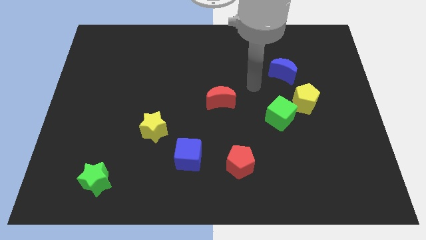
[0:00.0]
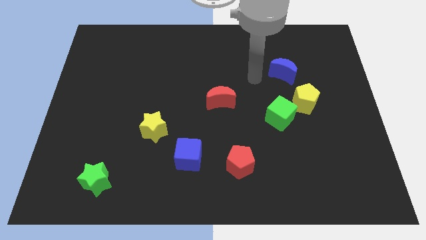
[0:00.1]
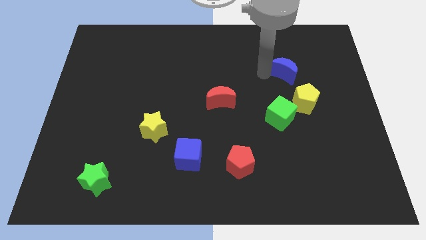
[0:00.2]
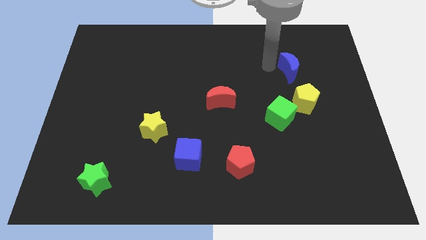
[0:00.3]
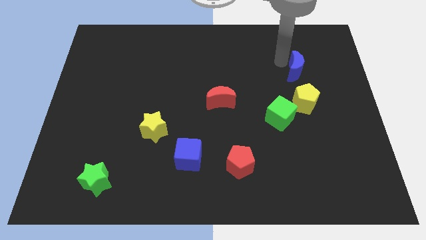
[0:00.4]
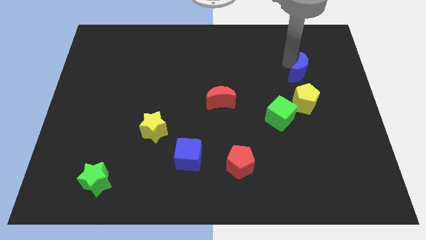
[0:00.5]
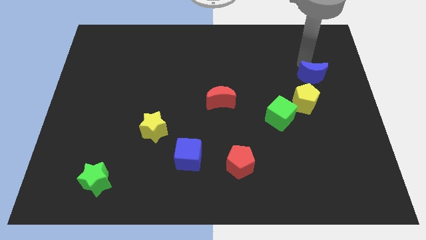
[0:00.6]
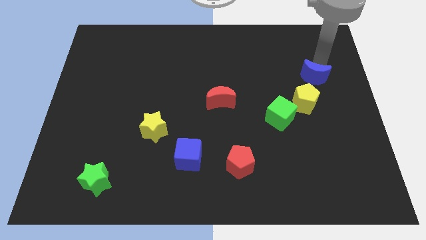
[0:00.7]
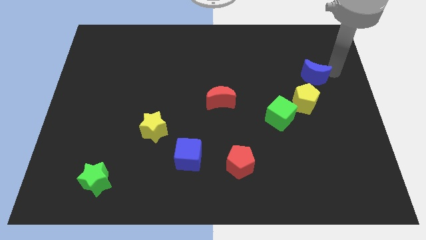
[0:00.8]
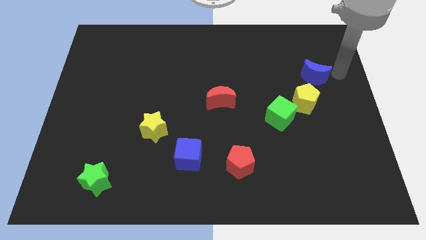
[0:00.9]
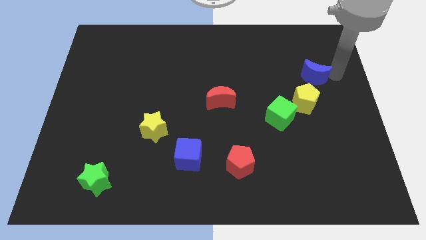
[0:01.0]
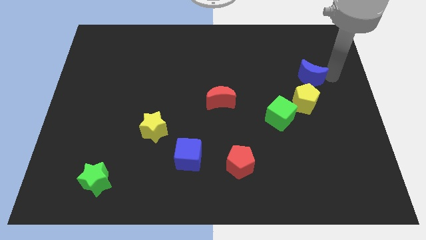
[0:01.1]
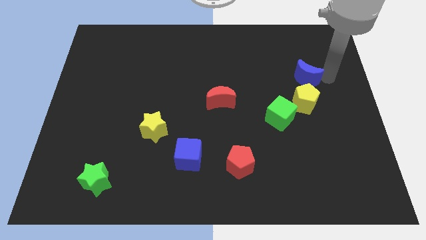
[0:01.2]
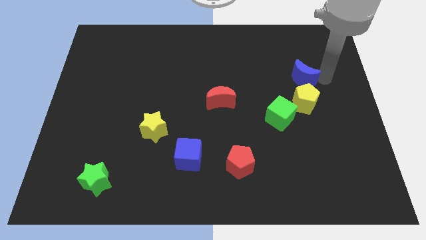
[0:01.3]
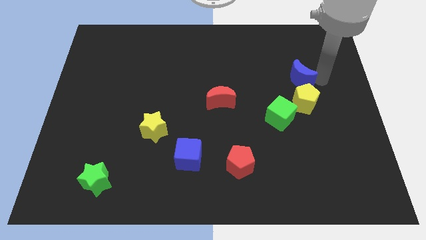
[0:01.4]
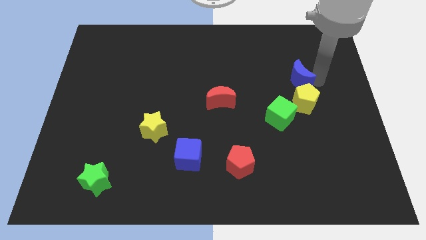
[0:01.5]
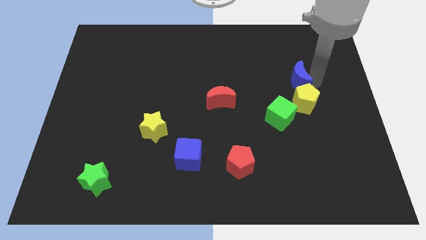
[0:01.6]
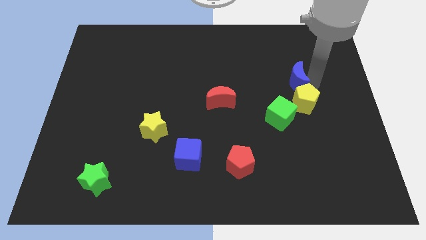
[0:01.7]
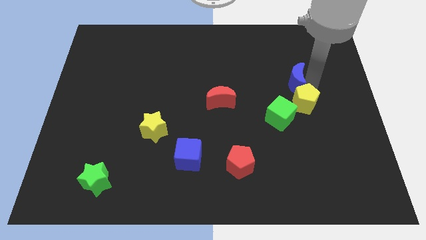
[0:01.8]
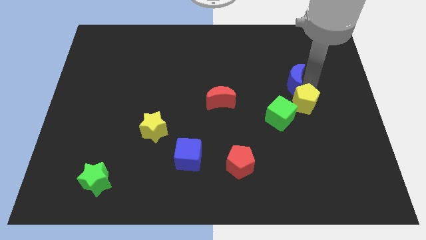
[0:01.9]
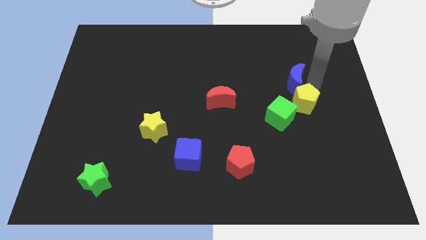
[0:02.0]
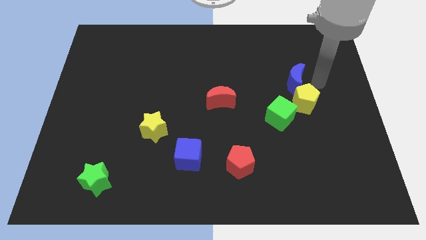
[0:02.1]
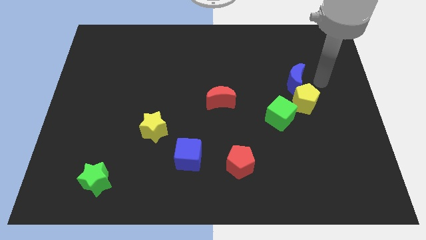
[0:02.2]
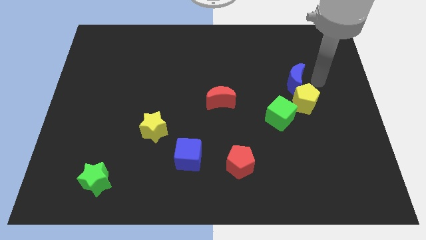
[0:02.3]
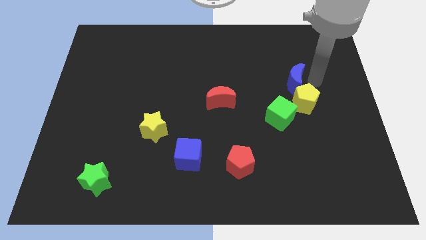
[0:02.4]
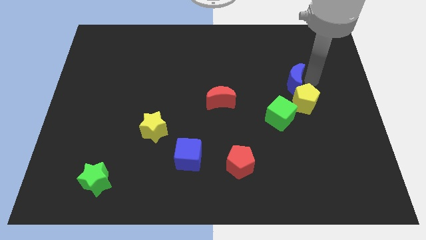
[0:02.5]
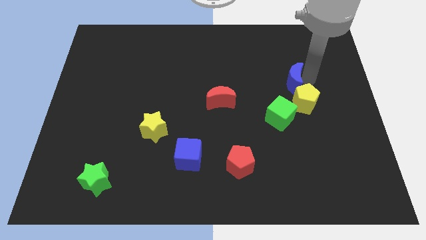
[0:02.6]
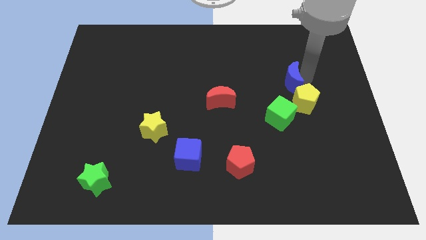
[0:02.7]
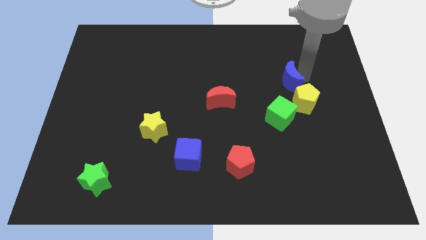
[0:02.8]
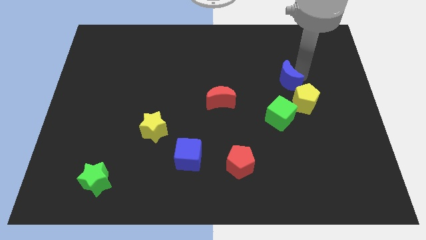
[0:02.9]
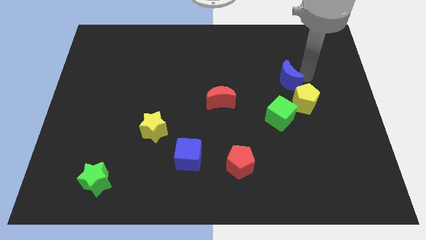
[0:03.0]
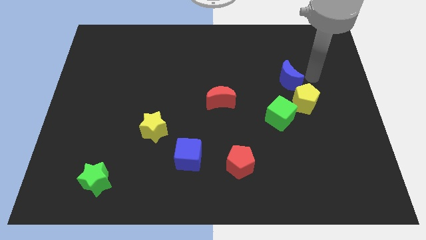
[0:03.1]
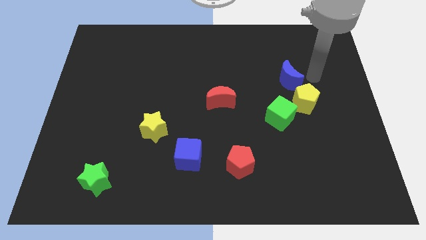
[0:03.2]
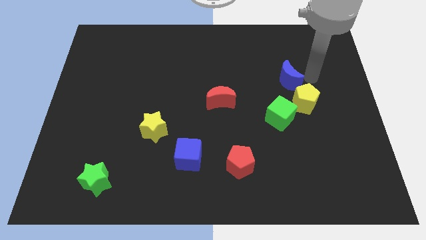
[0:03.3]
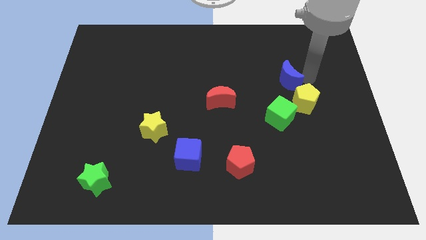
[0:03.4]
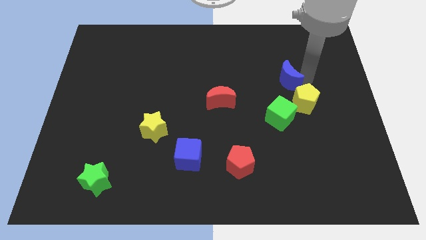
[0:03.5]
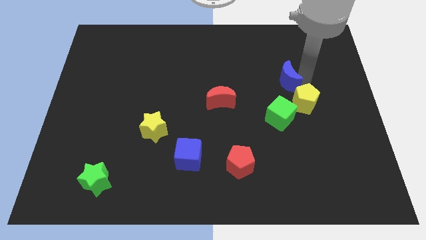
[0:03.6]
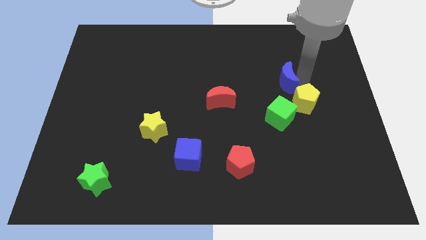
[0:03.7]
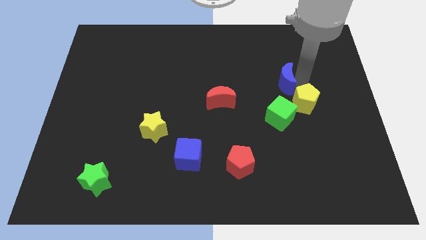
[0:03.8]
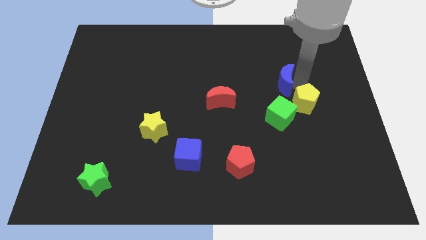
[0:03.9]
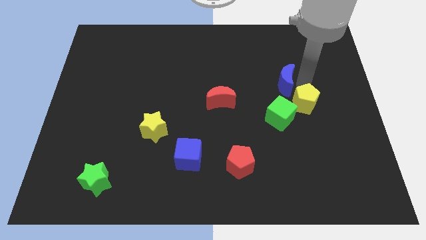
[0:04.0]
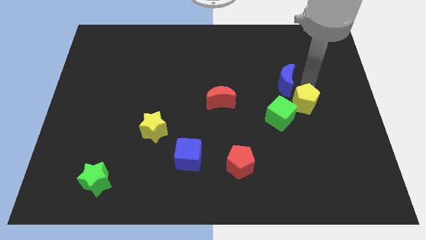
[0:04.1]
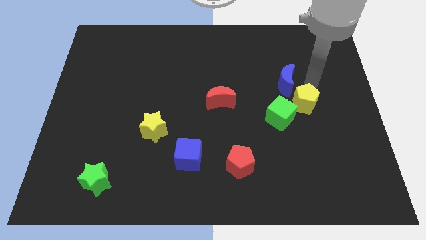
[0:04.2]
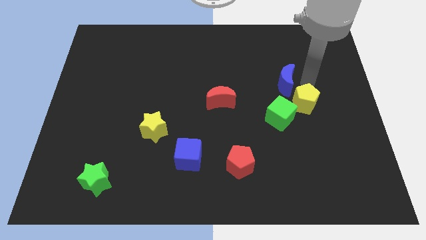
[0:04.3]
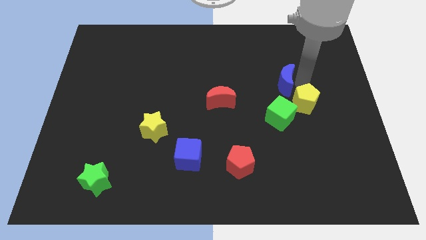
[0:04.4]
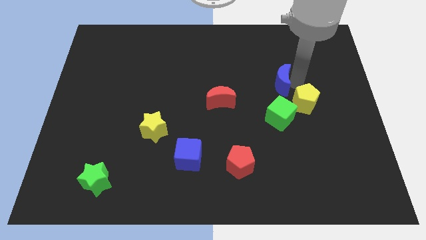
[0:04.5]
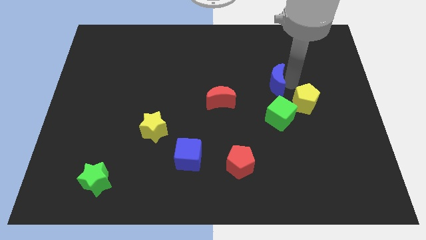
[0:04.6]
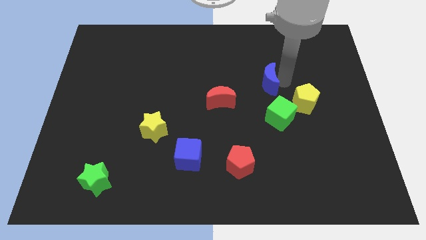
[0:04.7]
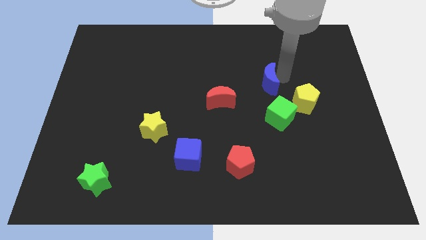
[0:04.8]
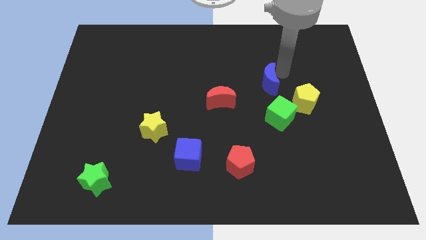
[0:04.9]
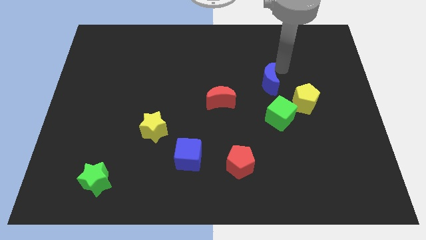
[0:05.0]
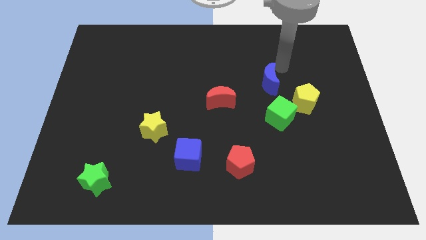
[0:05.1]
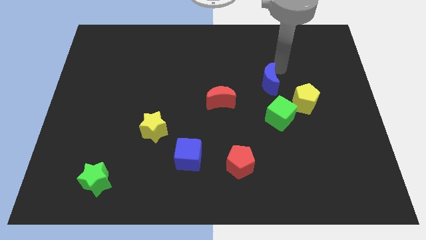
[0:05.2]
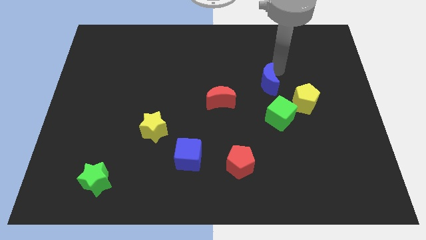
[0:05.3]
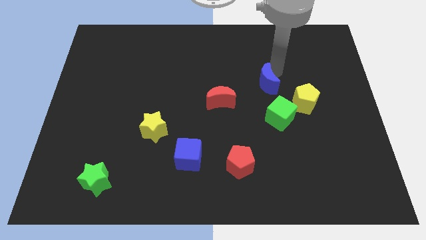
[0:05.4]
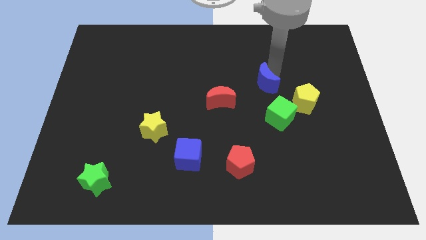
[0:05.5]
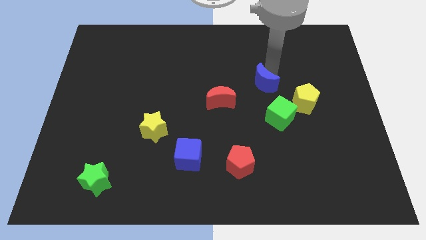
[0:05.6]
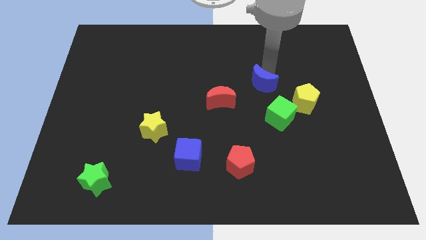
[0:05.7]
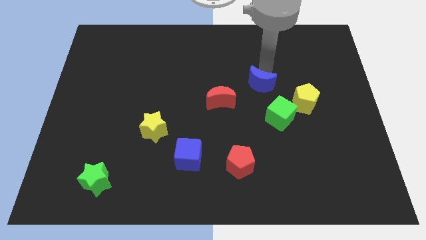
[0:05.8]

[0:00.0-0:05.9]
slide the blue moon to the top left side of the green cube

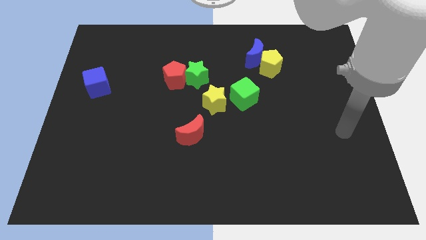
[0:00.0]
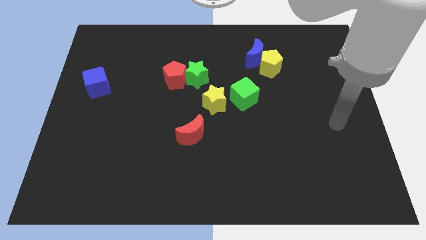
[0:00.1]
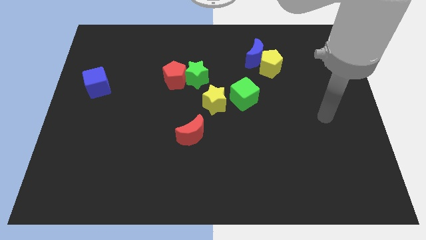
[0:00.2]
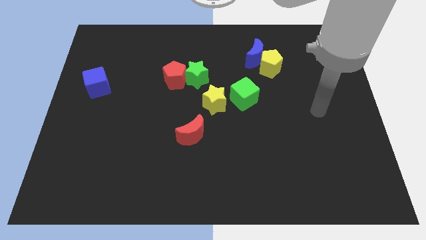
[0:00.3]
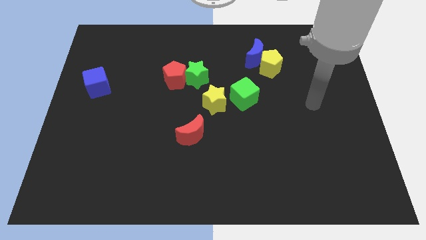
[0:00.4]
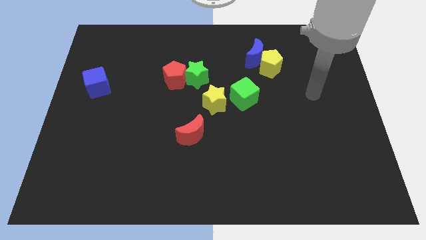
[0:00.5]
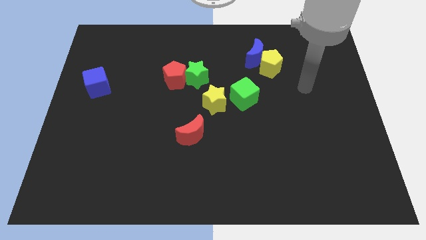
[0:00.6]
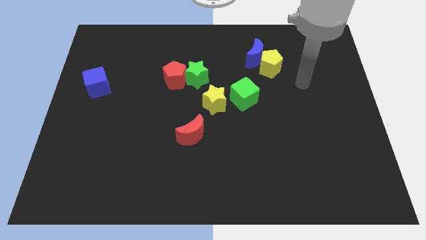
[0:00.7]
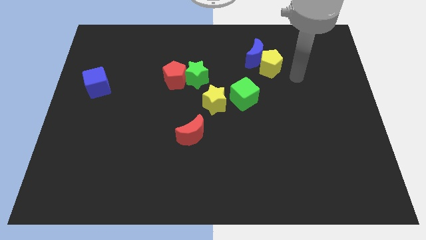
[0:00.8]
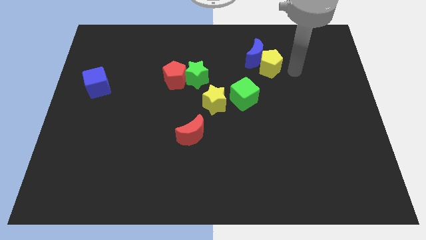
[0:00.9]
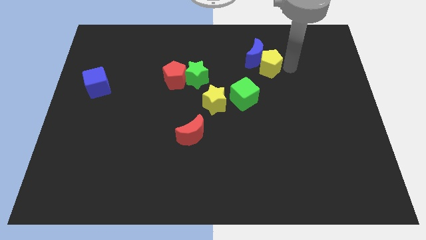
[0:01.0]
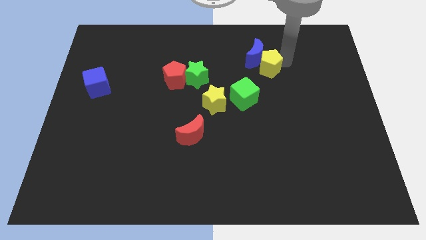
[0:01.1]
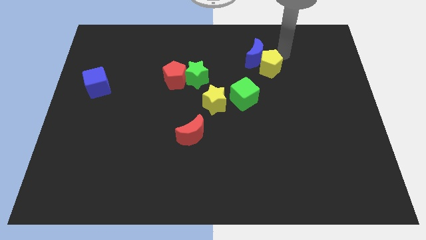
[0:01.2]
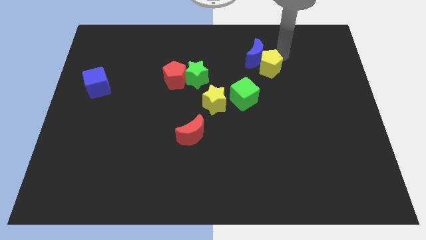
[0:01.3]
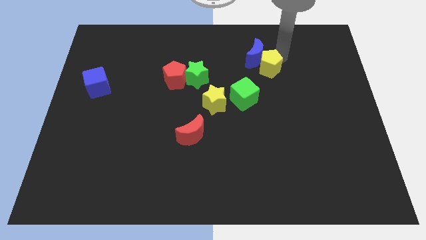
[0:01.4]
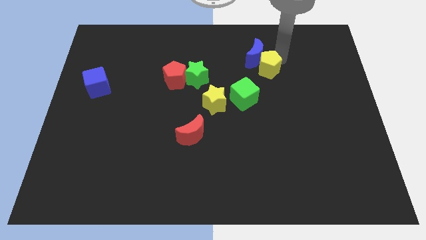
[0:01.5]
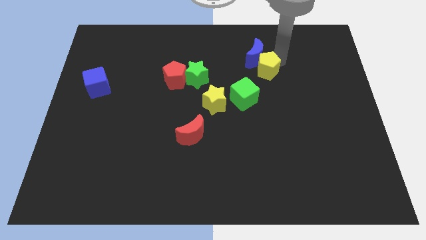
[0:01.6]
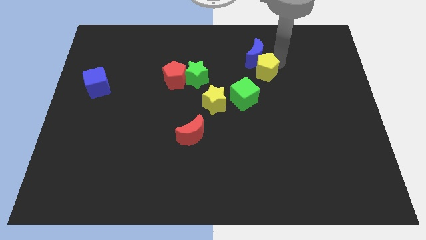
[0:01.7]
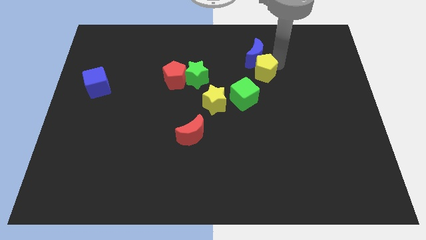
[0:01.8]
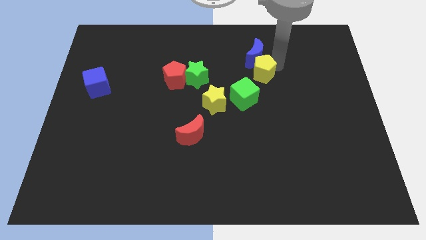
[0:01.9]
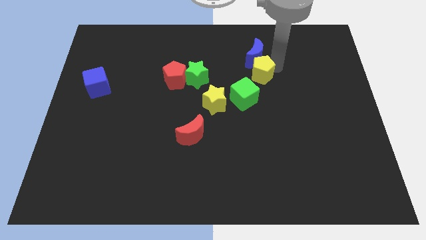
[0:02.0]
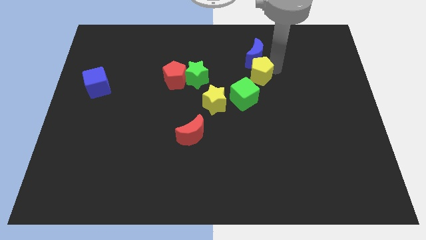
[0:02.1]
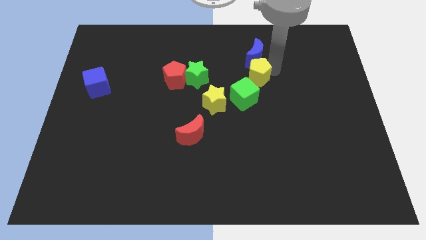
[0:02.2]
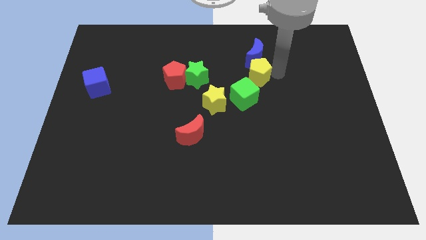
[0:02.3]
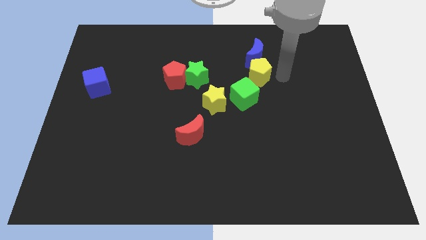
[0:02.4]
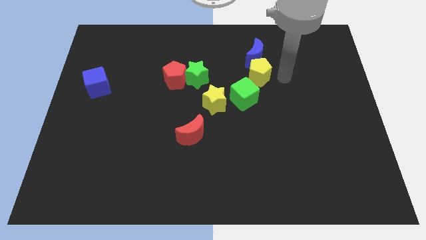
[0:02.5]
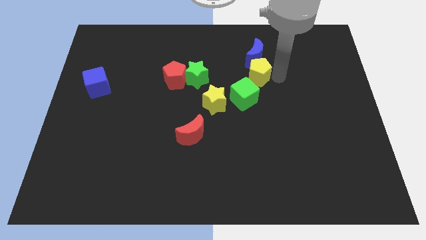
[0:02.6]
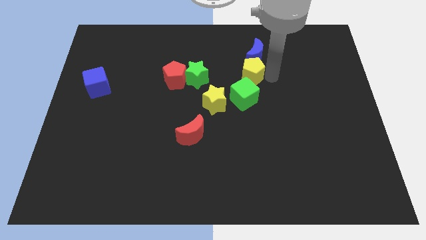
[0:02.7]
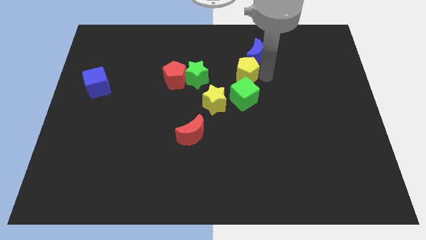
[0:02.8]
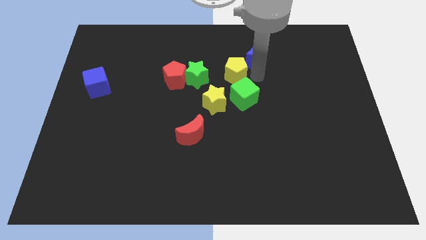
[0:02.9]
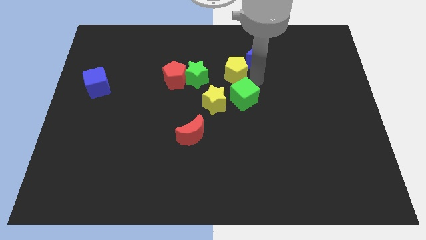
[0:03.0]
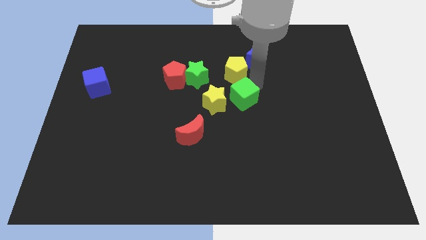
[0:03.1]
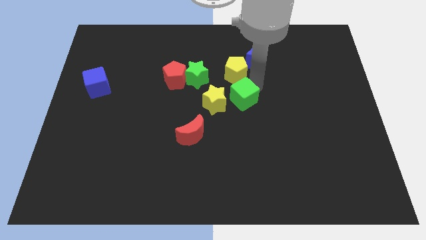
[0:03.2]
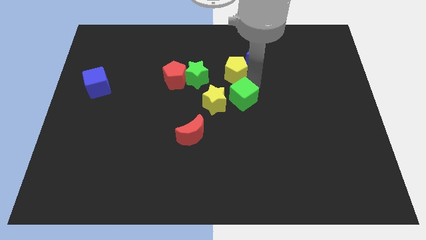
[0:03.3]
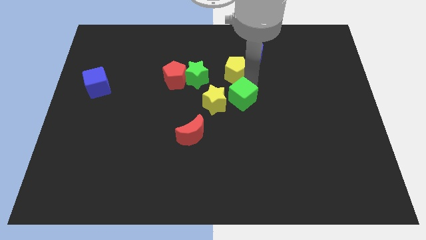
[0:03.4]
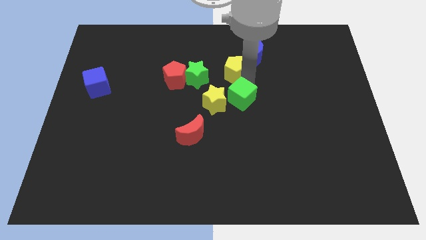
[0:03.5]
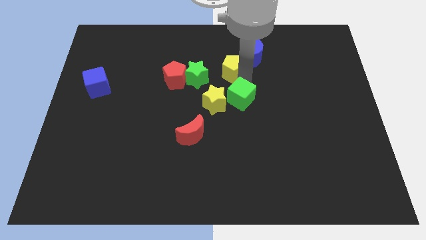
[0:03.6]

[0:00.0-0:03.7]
move the yellow pentagon to the top right of the green star
